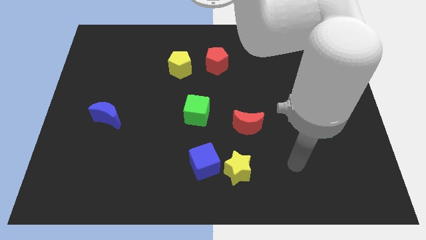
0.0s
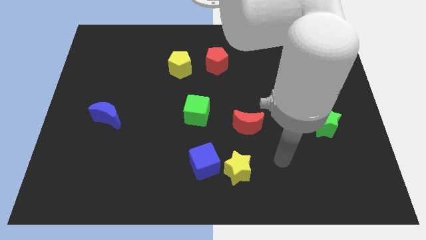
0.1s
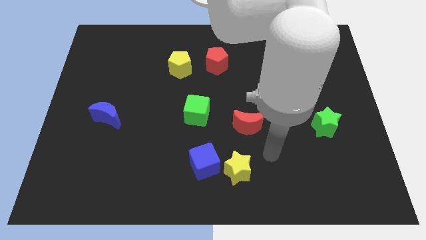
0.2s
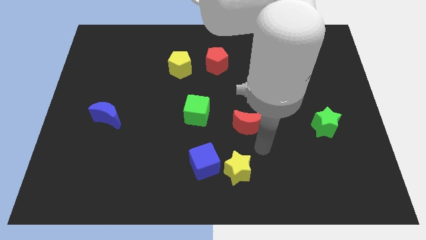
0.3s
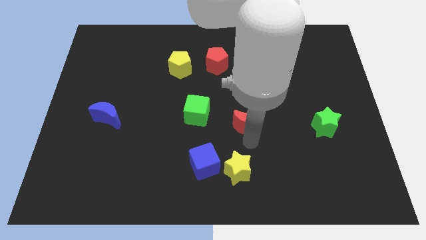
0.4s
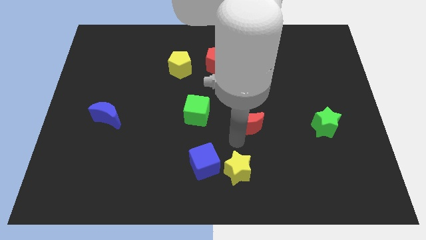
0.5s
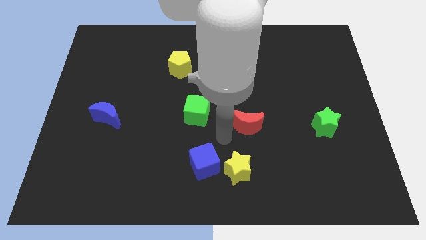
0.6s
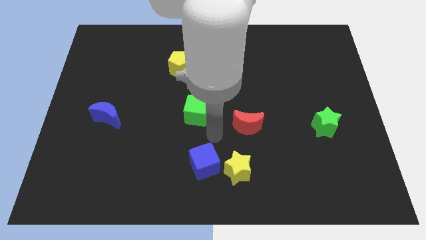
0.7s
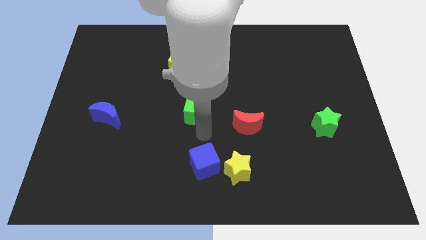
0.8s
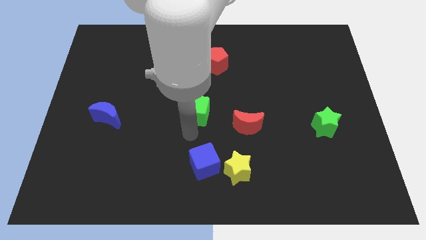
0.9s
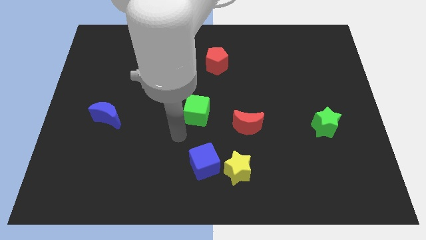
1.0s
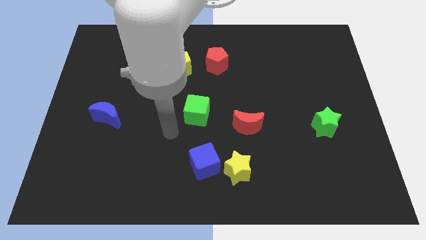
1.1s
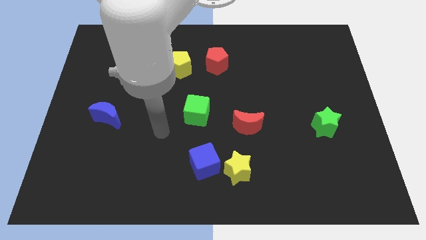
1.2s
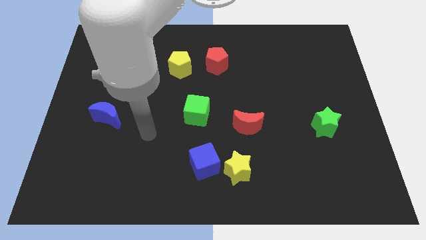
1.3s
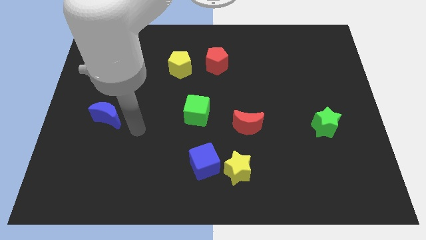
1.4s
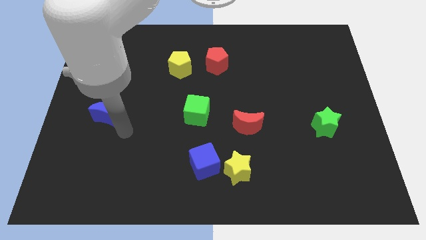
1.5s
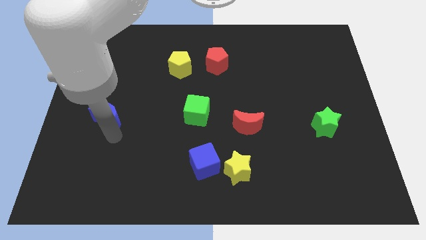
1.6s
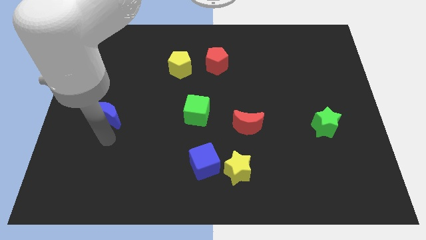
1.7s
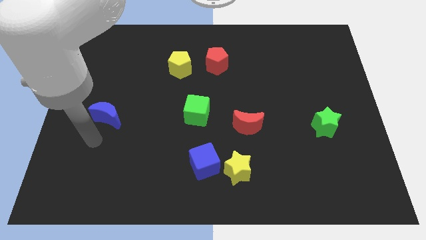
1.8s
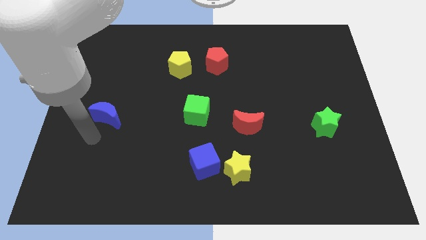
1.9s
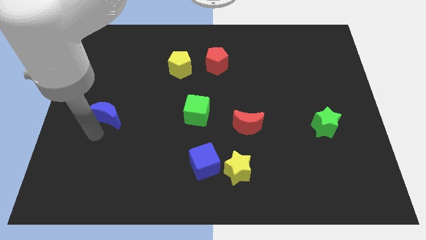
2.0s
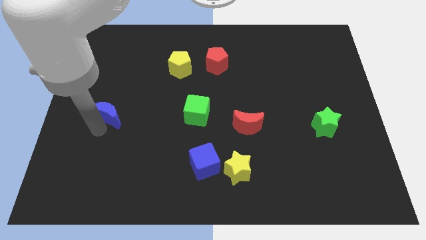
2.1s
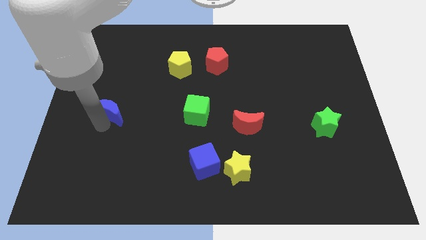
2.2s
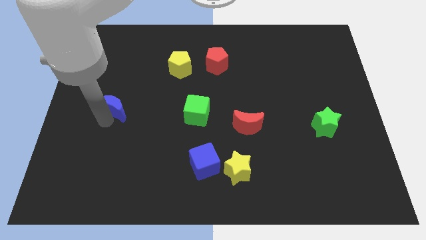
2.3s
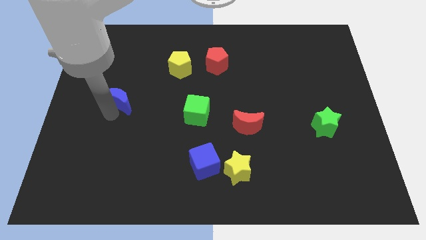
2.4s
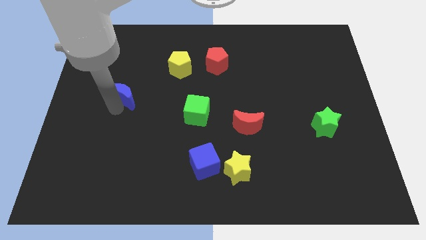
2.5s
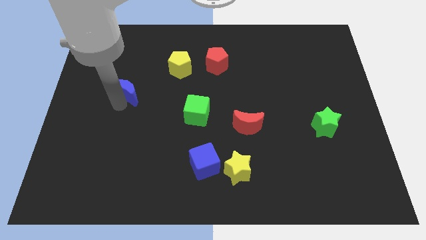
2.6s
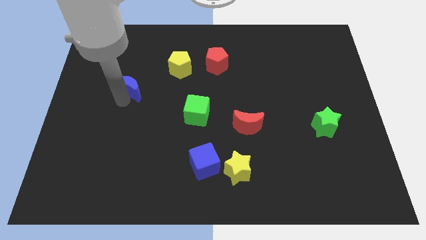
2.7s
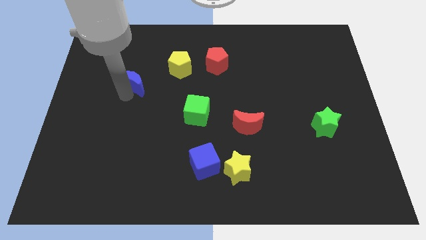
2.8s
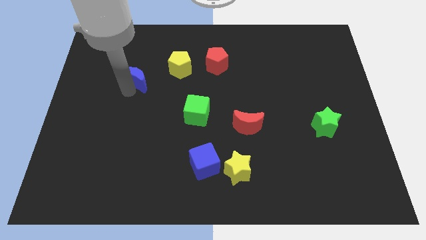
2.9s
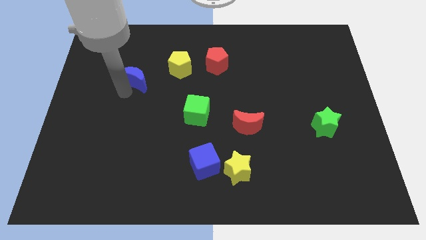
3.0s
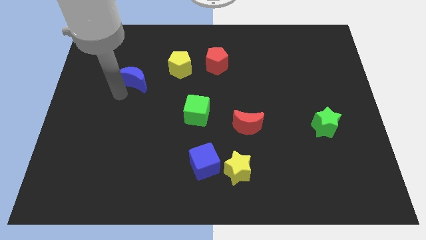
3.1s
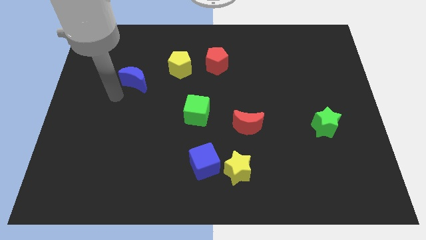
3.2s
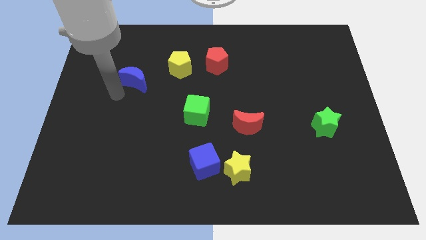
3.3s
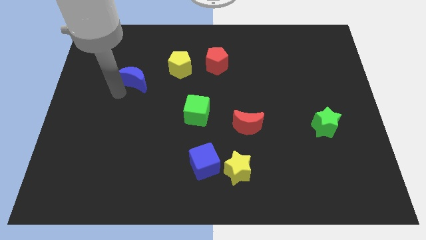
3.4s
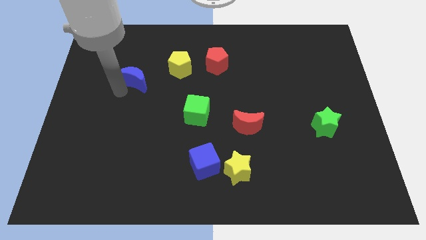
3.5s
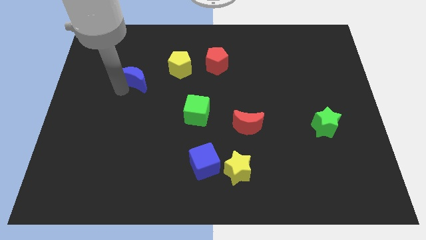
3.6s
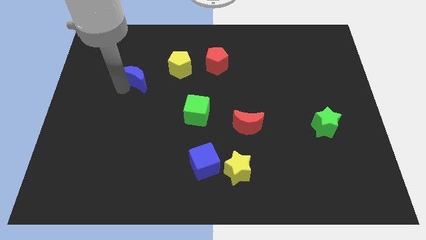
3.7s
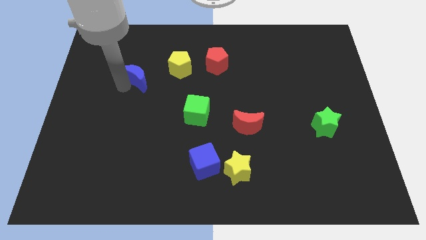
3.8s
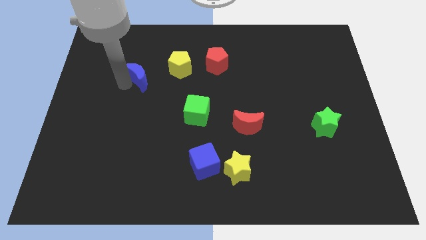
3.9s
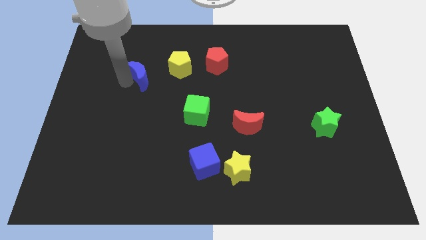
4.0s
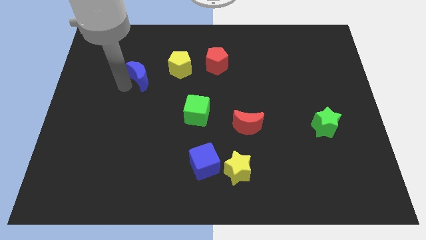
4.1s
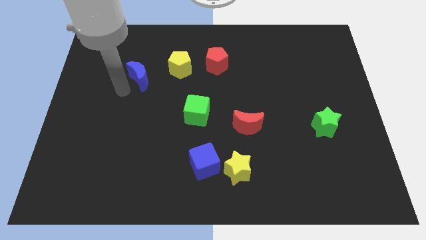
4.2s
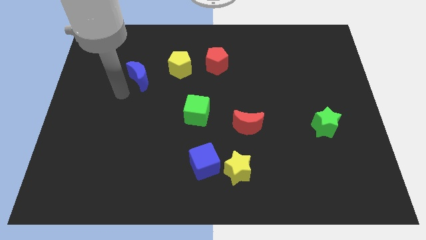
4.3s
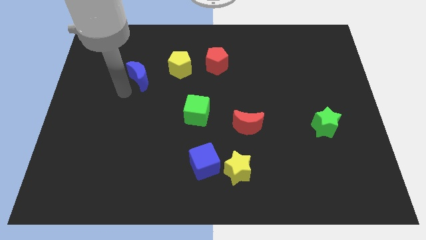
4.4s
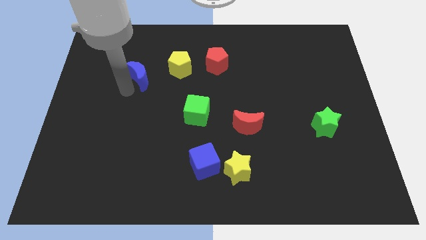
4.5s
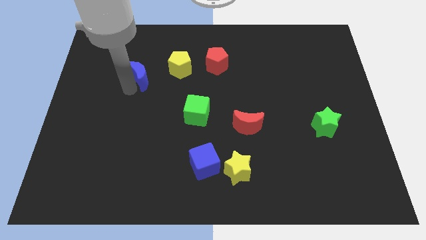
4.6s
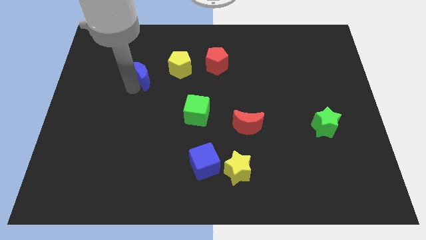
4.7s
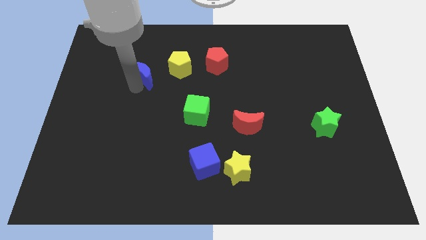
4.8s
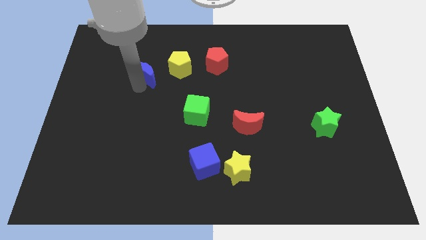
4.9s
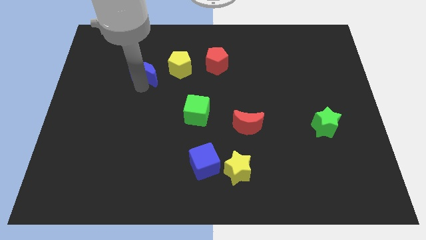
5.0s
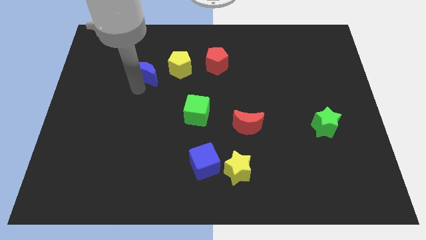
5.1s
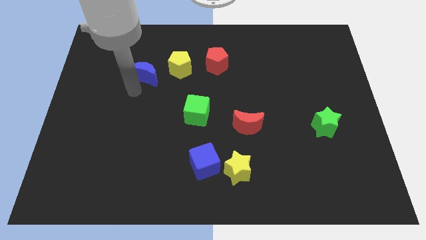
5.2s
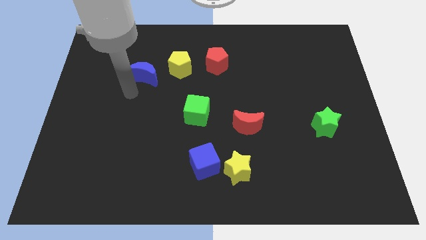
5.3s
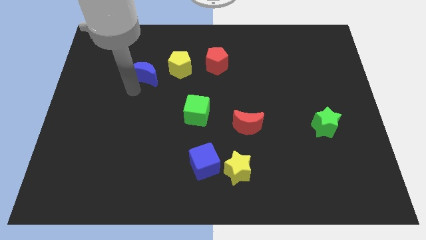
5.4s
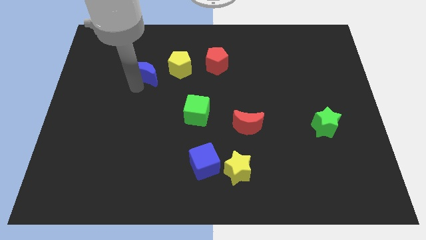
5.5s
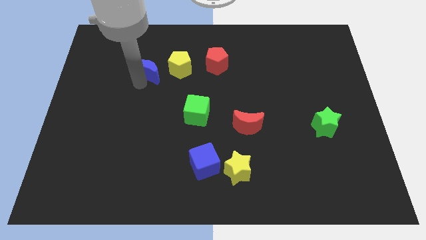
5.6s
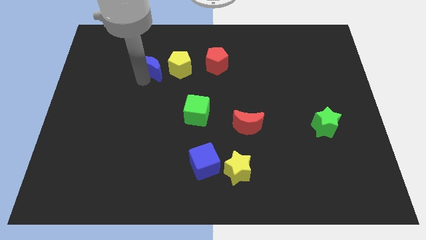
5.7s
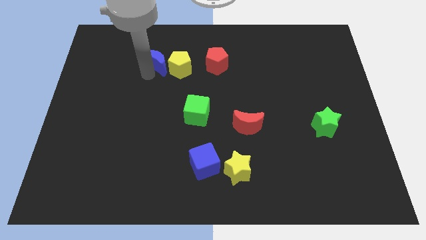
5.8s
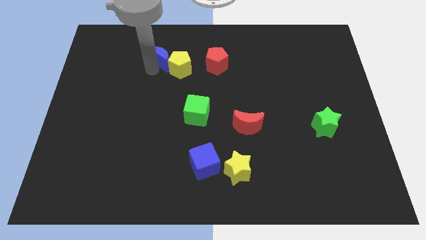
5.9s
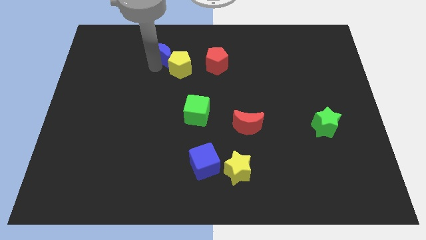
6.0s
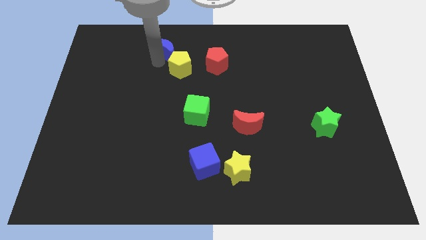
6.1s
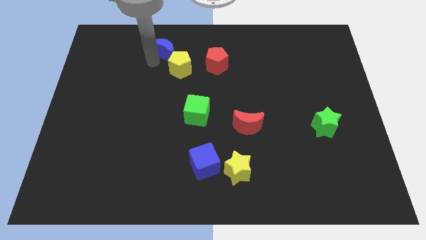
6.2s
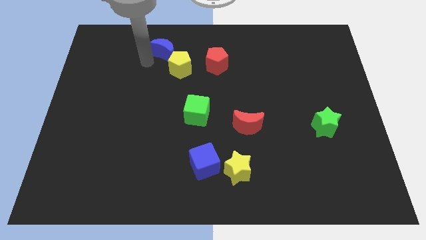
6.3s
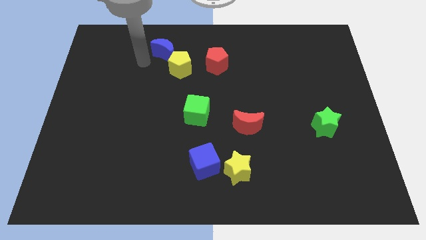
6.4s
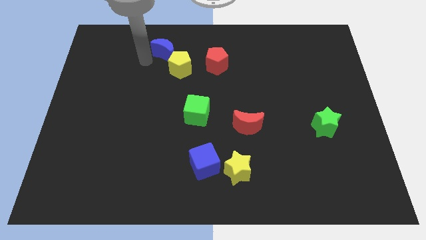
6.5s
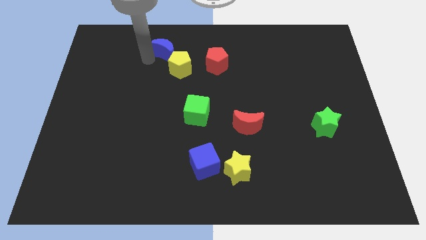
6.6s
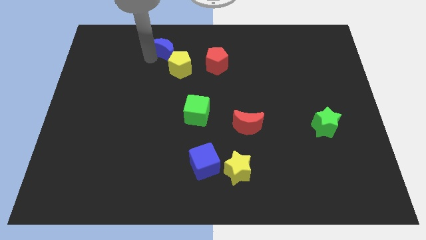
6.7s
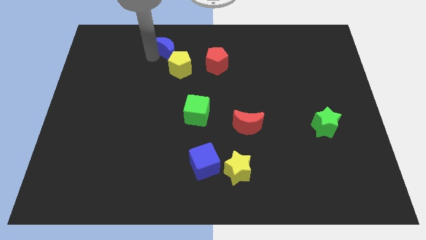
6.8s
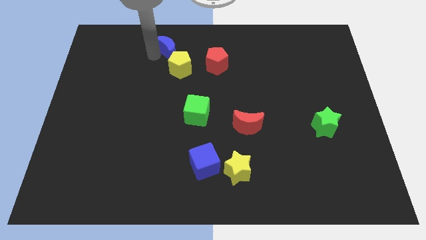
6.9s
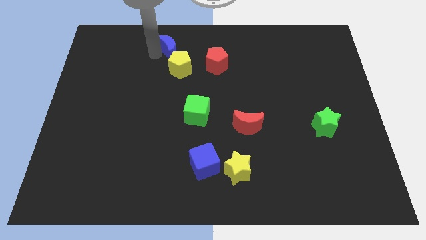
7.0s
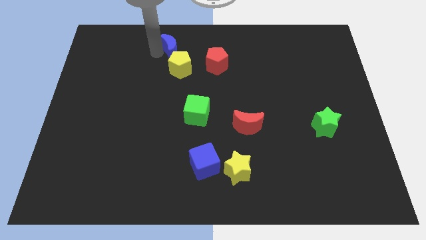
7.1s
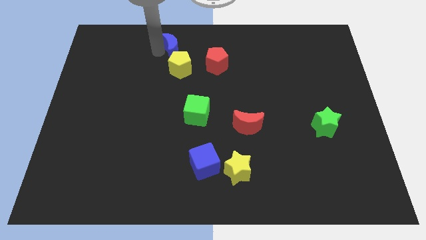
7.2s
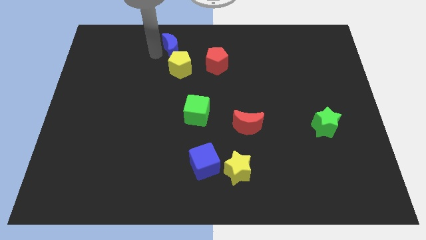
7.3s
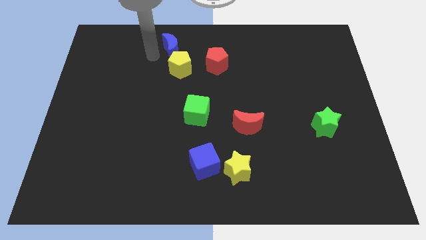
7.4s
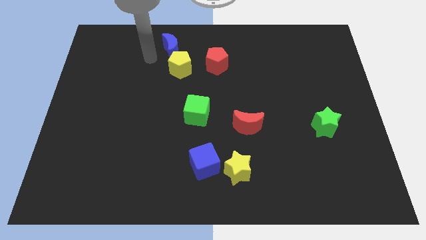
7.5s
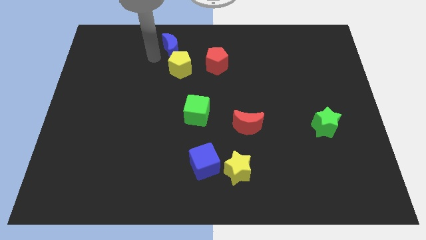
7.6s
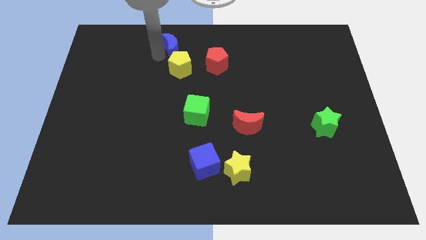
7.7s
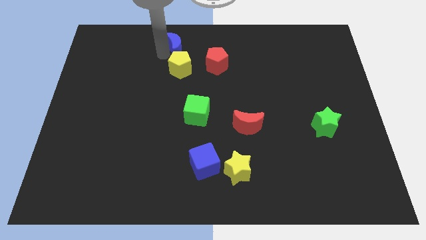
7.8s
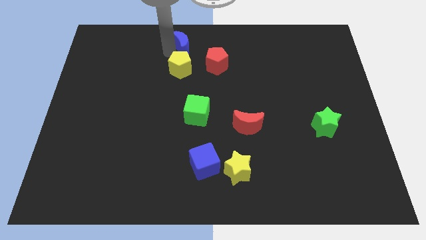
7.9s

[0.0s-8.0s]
put the blue moon to the towards your base
